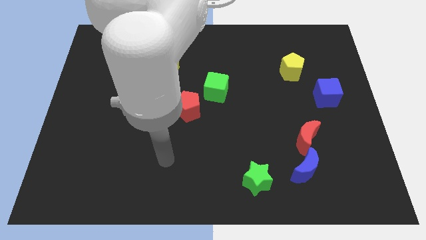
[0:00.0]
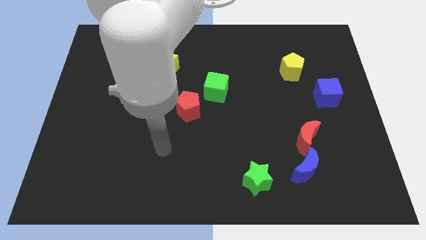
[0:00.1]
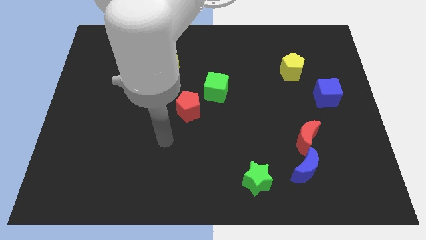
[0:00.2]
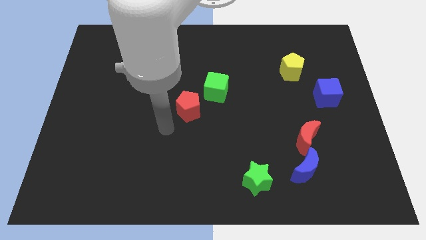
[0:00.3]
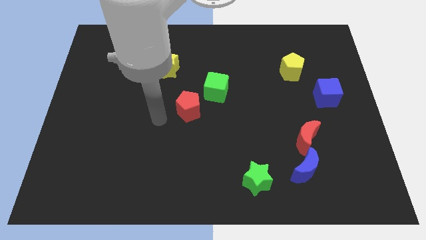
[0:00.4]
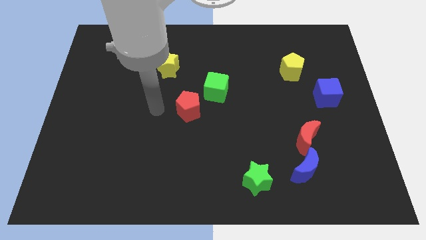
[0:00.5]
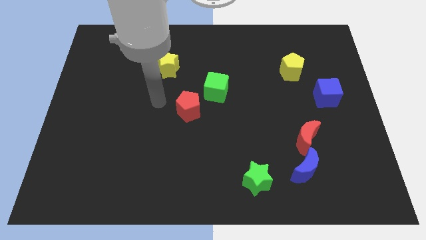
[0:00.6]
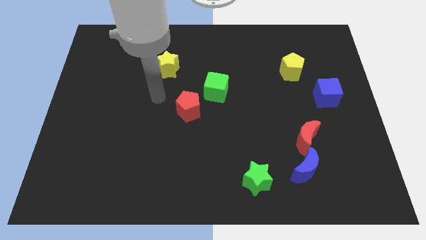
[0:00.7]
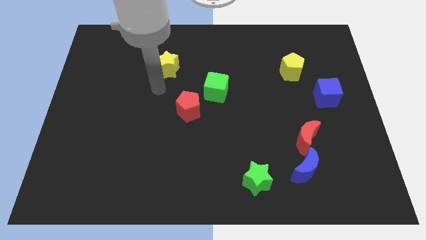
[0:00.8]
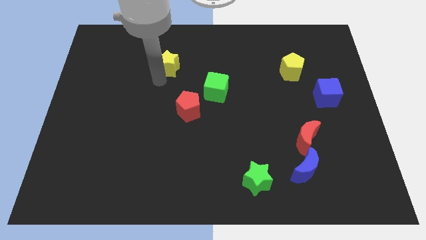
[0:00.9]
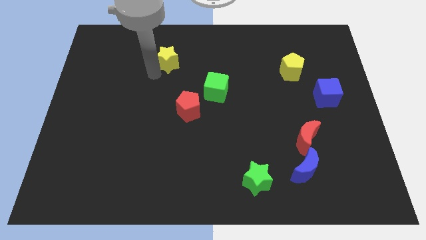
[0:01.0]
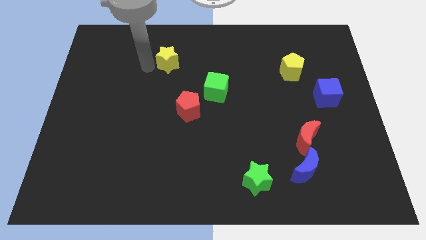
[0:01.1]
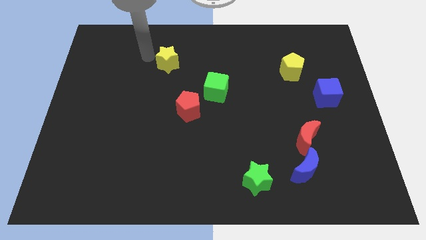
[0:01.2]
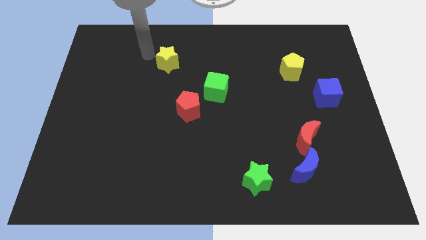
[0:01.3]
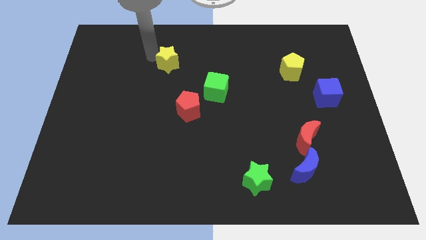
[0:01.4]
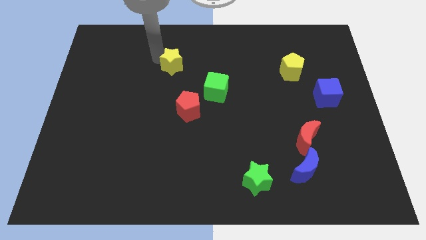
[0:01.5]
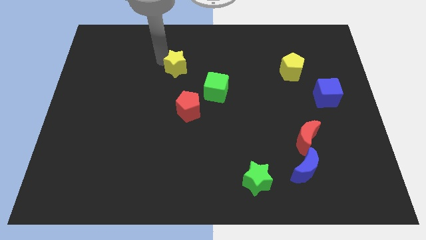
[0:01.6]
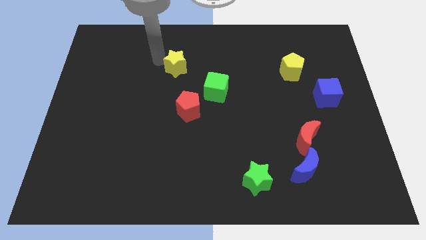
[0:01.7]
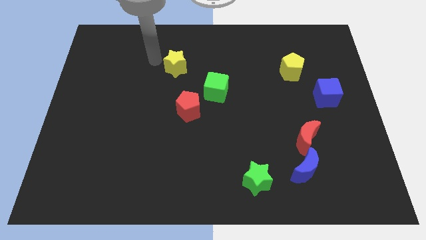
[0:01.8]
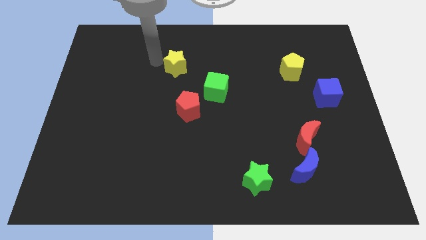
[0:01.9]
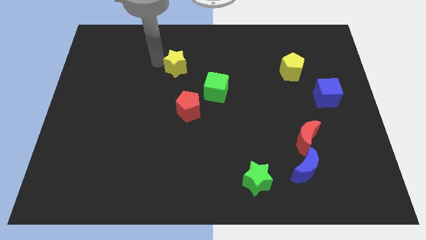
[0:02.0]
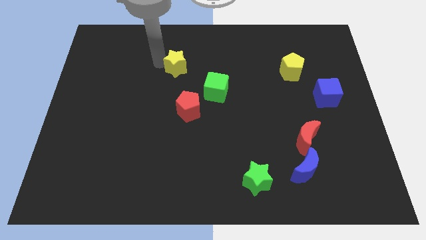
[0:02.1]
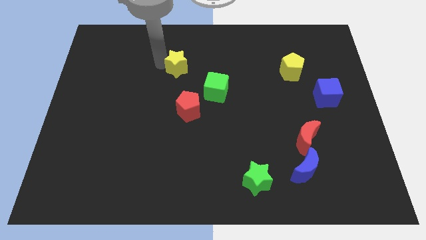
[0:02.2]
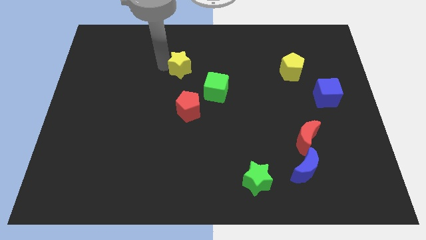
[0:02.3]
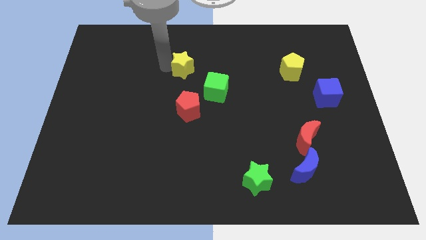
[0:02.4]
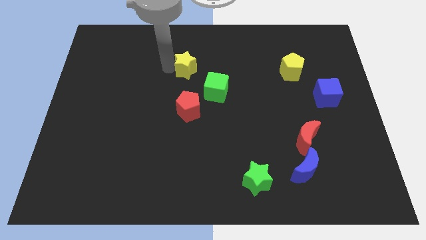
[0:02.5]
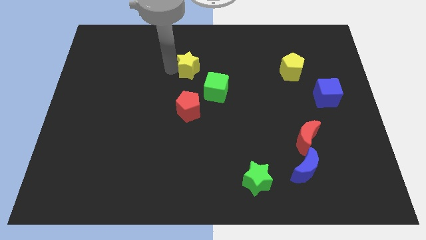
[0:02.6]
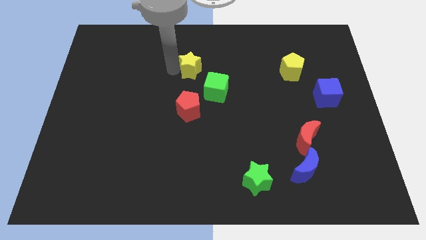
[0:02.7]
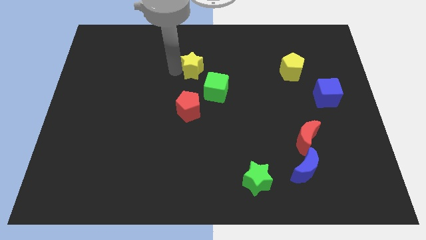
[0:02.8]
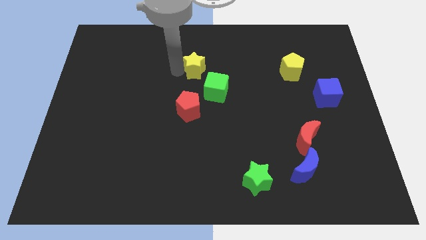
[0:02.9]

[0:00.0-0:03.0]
slide the yellow star a bit to the right

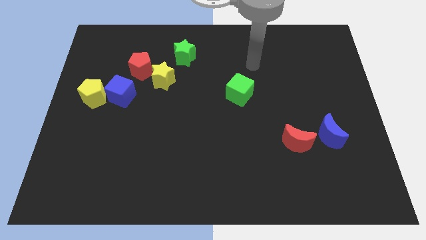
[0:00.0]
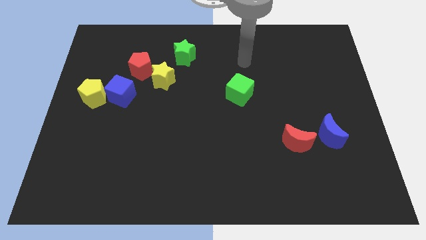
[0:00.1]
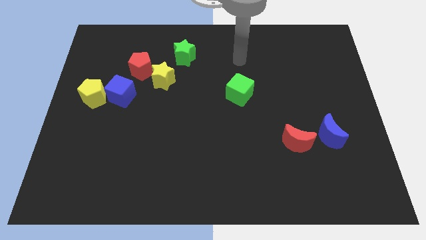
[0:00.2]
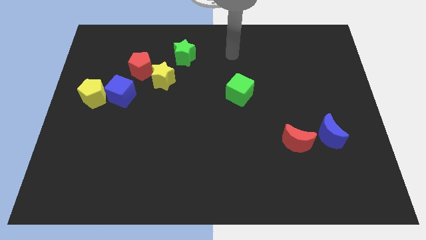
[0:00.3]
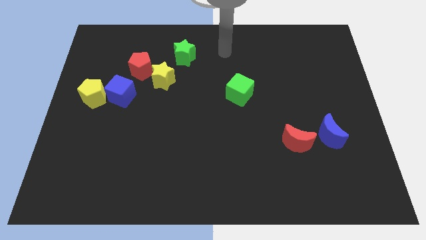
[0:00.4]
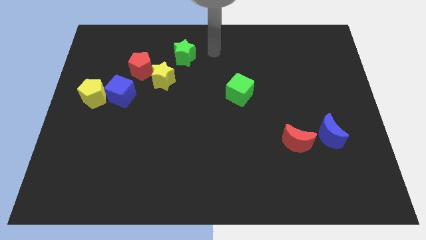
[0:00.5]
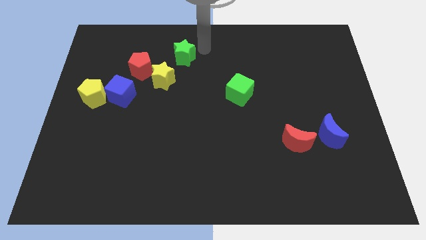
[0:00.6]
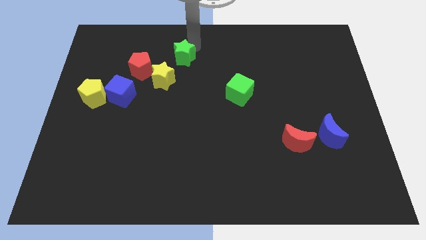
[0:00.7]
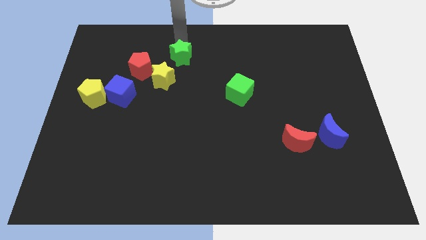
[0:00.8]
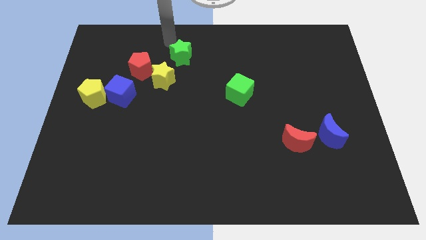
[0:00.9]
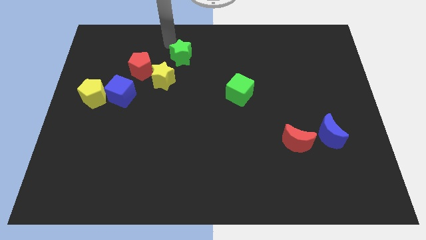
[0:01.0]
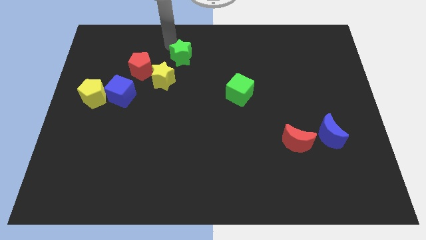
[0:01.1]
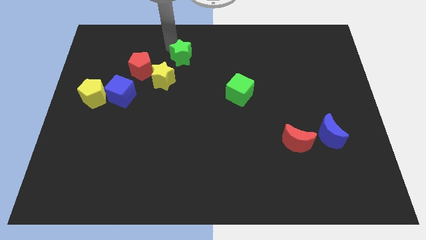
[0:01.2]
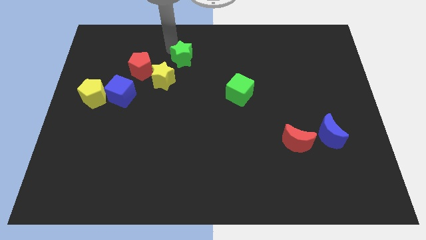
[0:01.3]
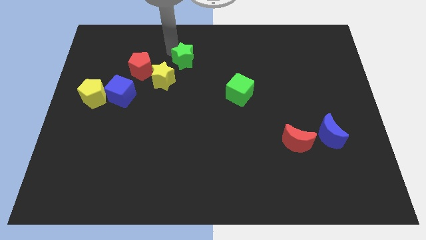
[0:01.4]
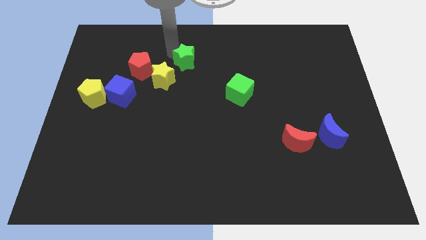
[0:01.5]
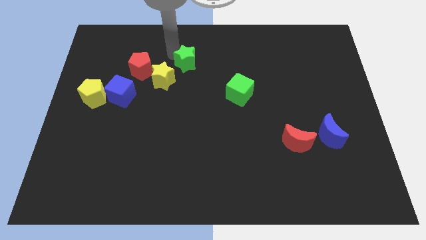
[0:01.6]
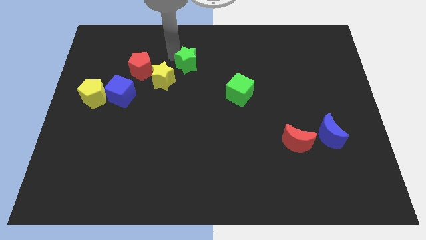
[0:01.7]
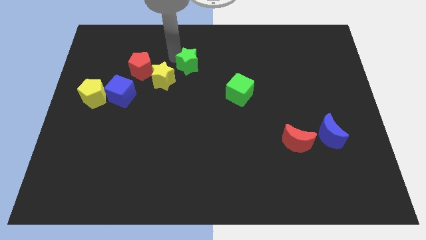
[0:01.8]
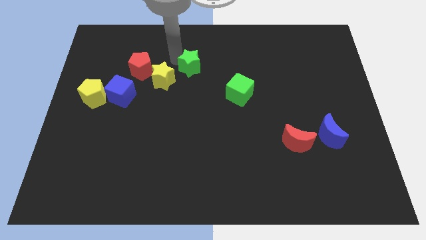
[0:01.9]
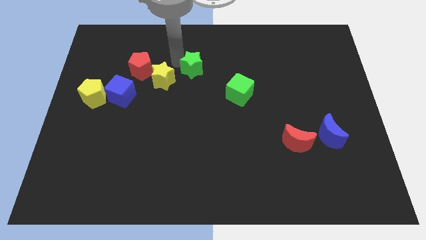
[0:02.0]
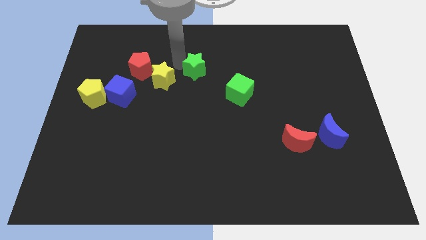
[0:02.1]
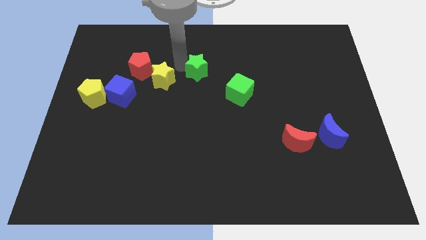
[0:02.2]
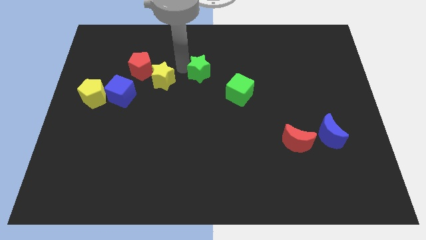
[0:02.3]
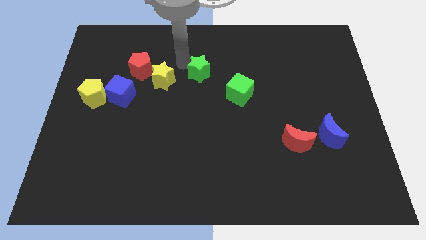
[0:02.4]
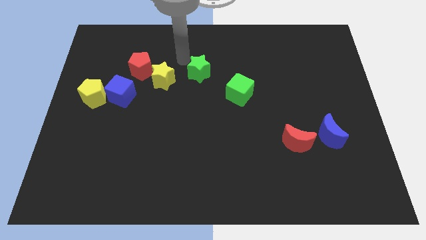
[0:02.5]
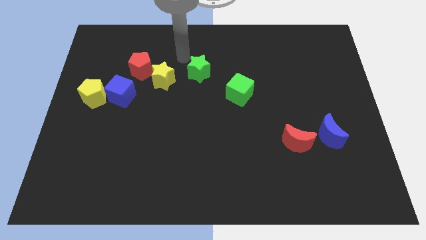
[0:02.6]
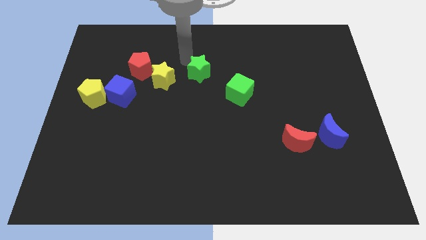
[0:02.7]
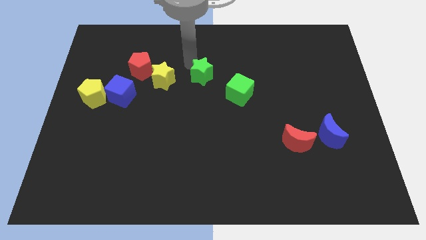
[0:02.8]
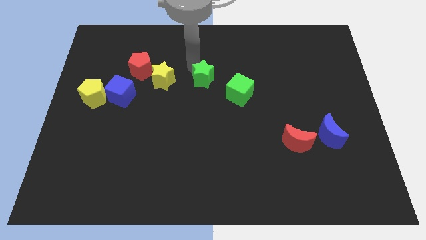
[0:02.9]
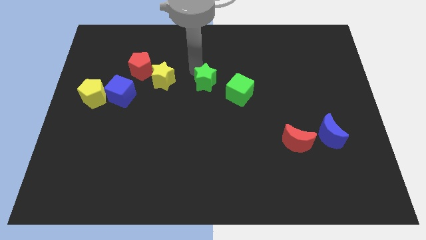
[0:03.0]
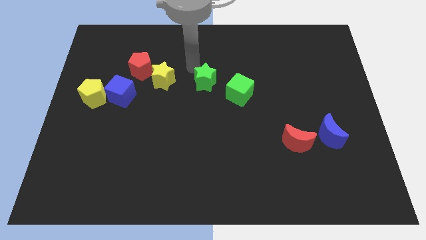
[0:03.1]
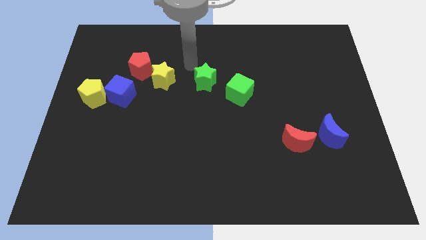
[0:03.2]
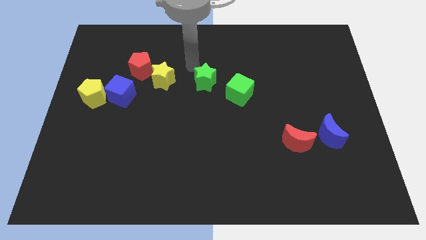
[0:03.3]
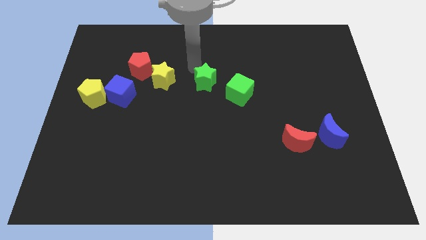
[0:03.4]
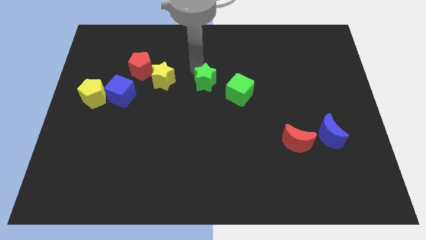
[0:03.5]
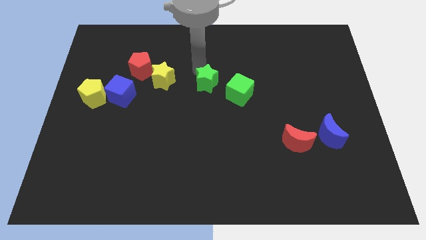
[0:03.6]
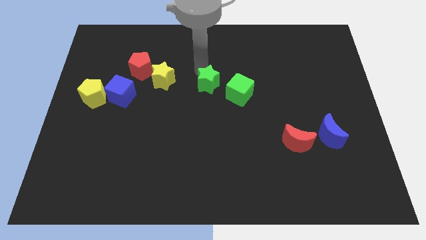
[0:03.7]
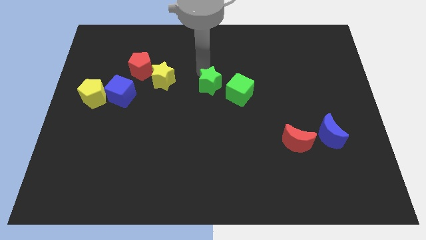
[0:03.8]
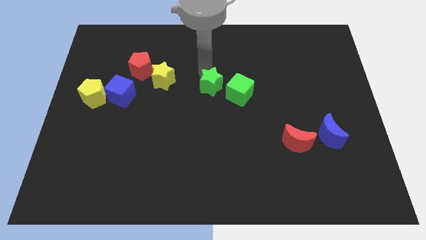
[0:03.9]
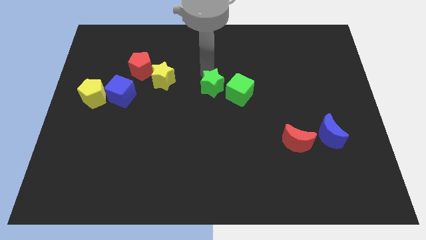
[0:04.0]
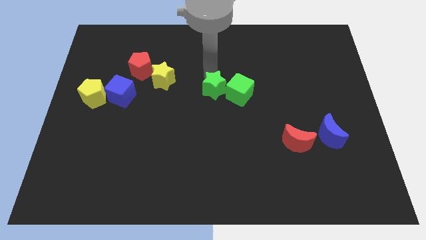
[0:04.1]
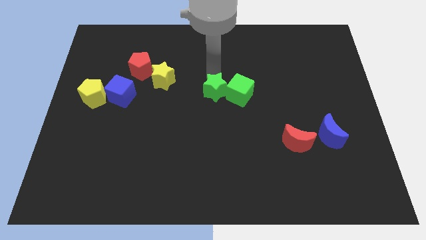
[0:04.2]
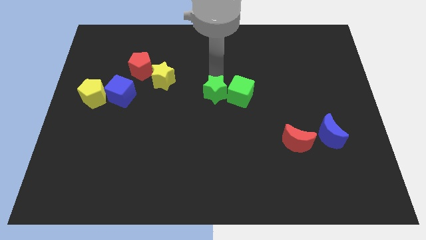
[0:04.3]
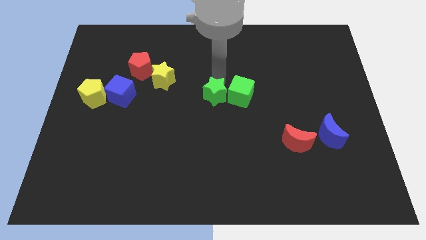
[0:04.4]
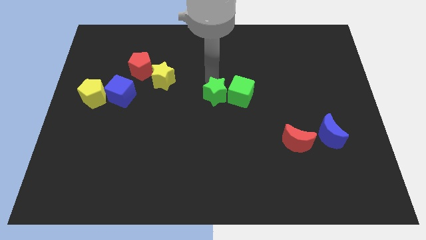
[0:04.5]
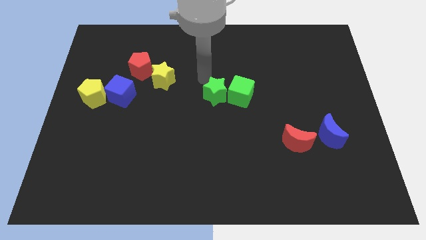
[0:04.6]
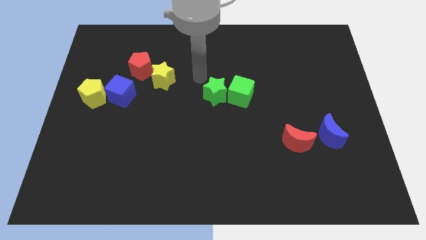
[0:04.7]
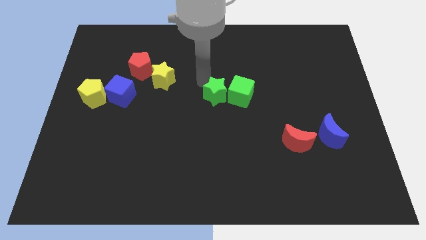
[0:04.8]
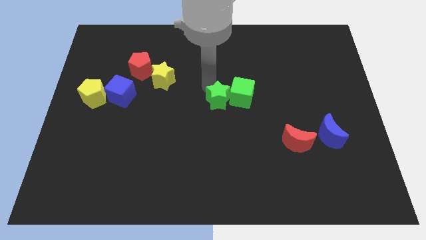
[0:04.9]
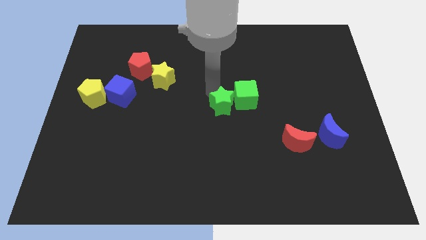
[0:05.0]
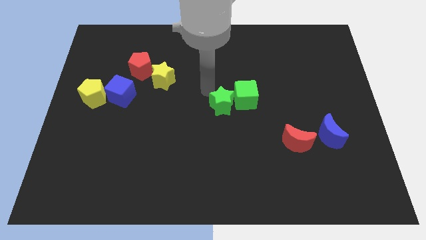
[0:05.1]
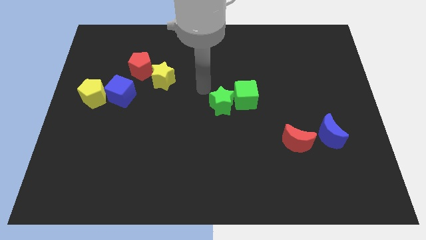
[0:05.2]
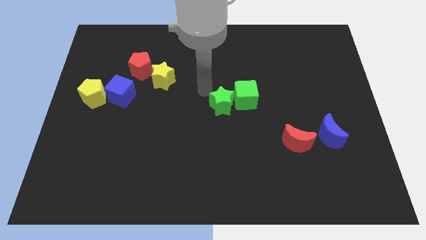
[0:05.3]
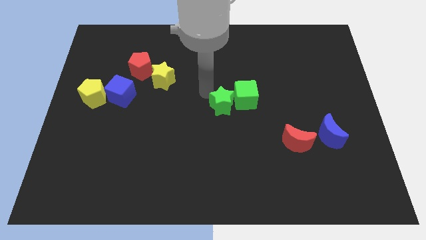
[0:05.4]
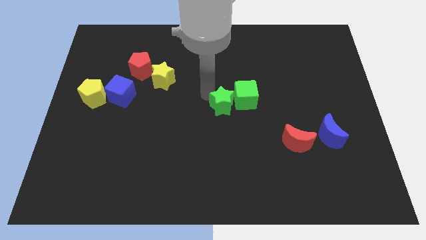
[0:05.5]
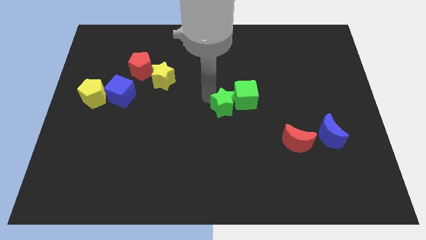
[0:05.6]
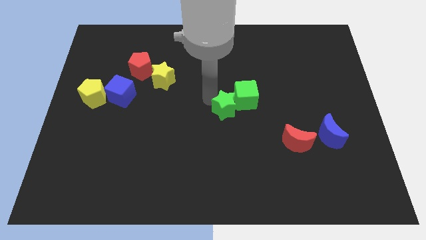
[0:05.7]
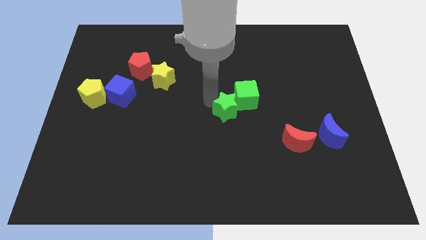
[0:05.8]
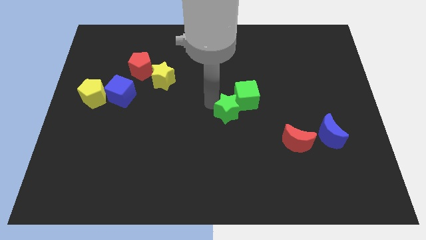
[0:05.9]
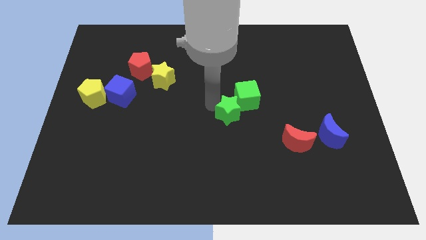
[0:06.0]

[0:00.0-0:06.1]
slide the green star diagonally downwards and to the right
